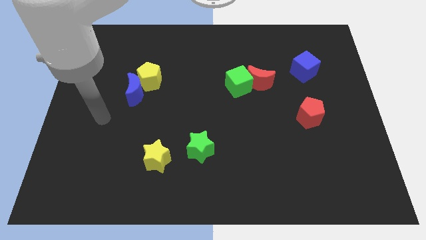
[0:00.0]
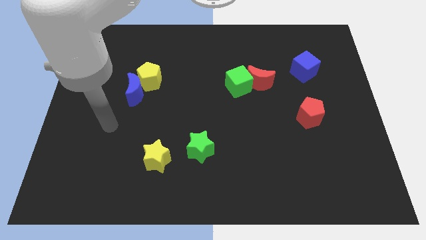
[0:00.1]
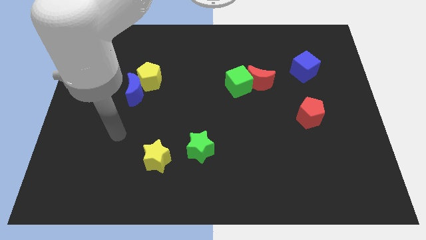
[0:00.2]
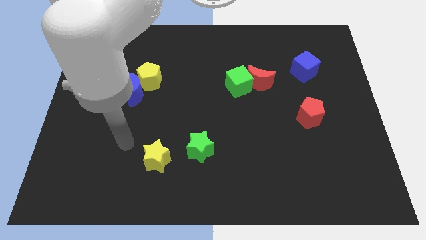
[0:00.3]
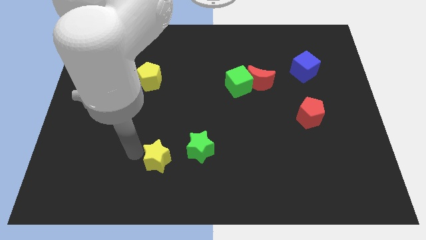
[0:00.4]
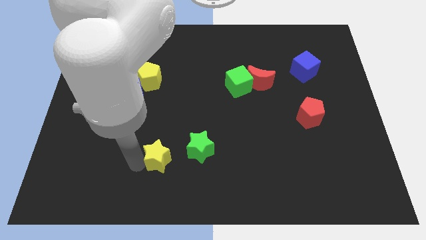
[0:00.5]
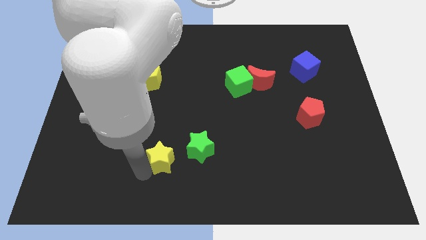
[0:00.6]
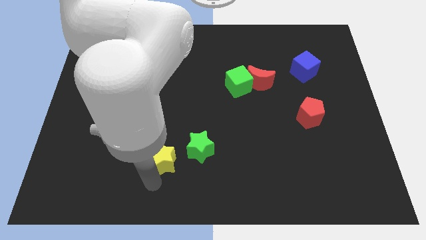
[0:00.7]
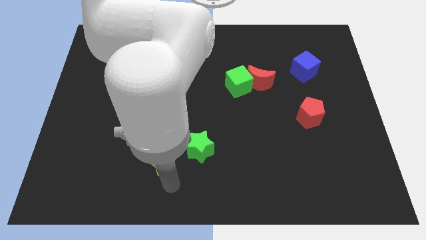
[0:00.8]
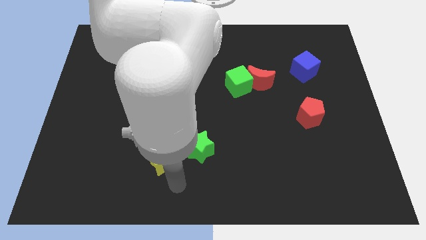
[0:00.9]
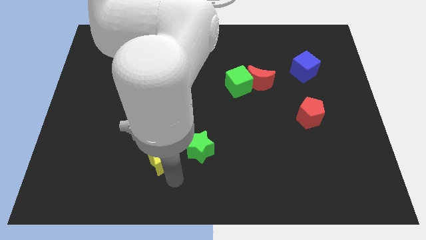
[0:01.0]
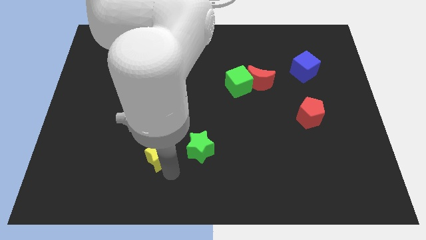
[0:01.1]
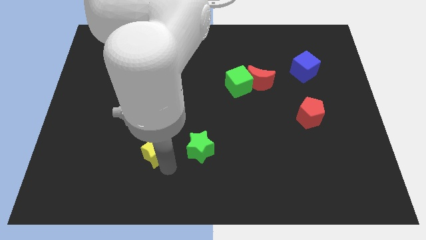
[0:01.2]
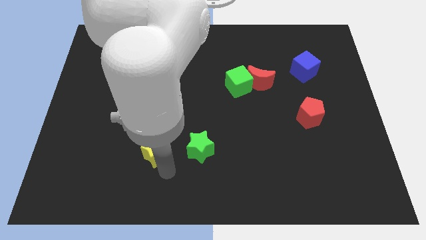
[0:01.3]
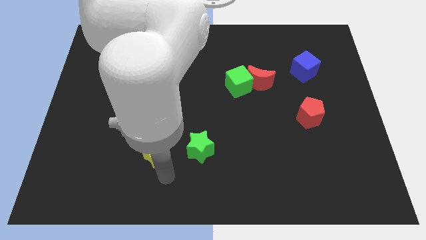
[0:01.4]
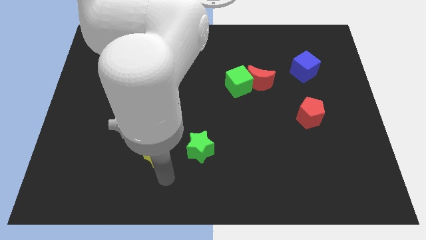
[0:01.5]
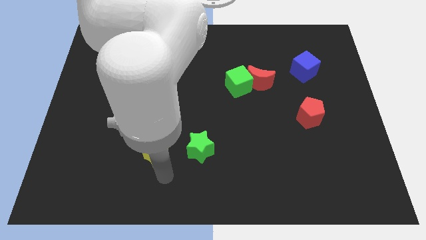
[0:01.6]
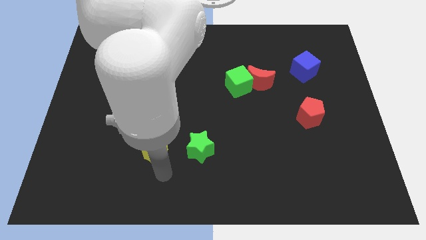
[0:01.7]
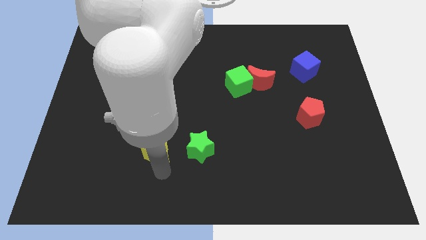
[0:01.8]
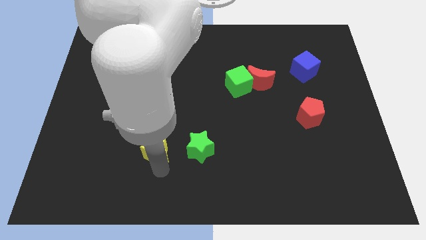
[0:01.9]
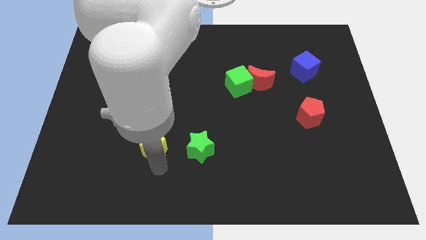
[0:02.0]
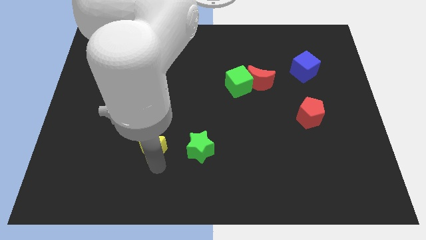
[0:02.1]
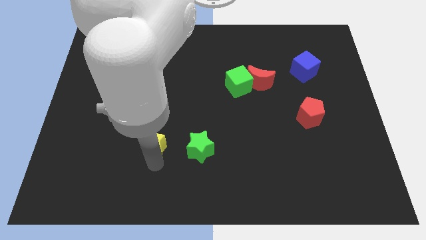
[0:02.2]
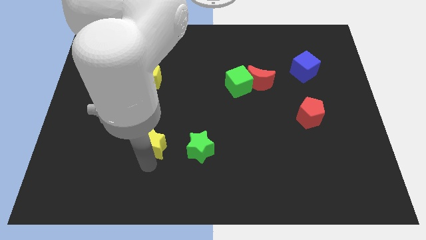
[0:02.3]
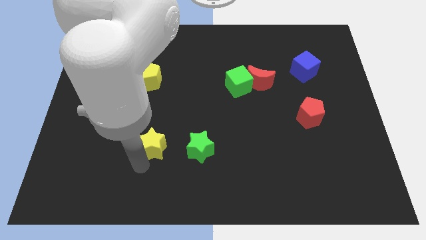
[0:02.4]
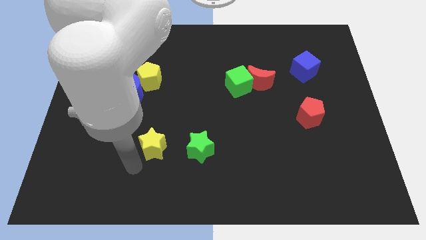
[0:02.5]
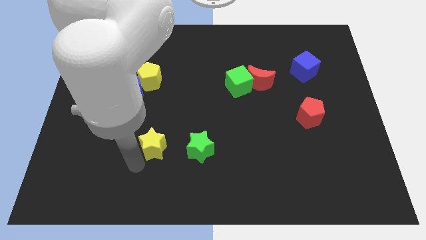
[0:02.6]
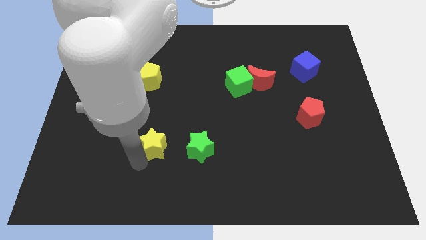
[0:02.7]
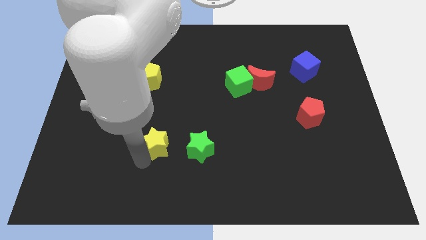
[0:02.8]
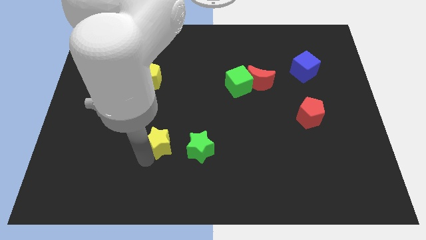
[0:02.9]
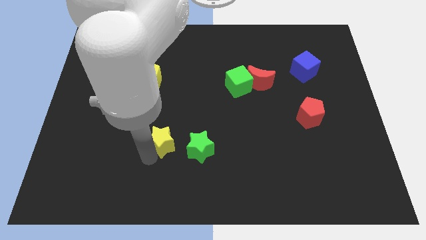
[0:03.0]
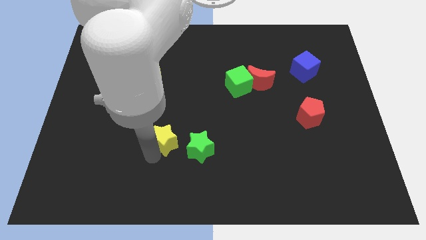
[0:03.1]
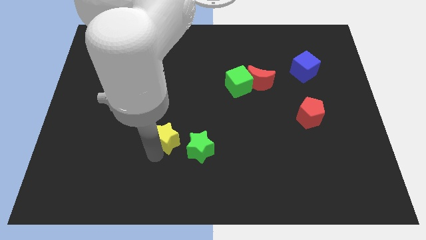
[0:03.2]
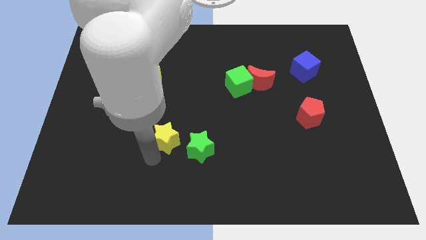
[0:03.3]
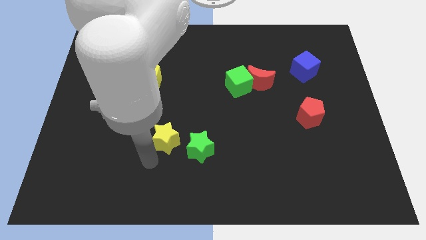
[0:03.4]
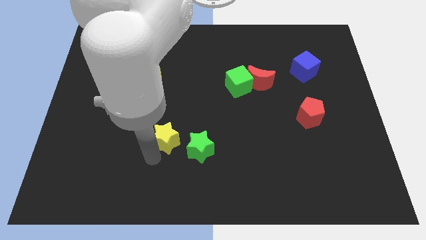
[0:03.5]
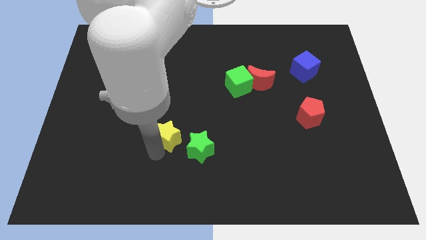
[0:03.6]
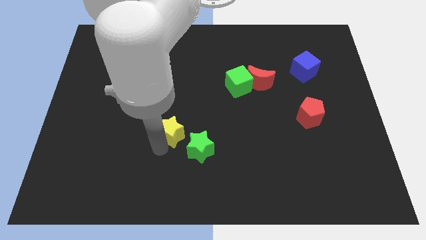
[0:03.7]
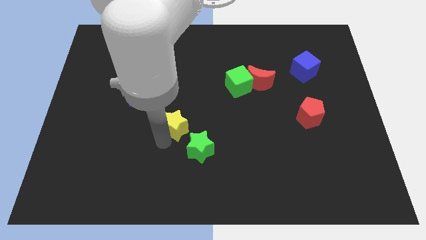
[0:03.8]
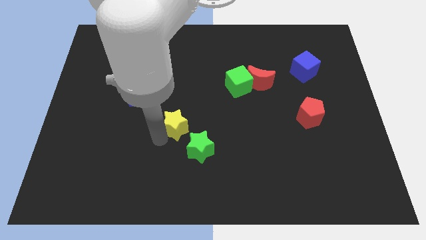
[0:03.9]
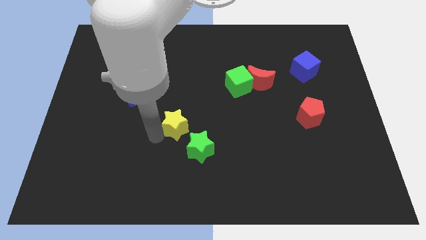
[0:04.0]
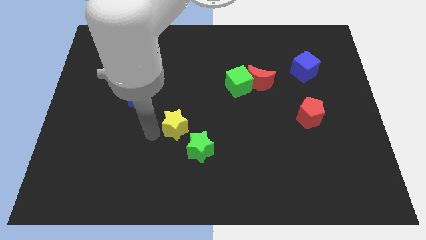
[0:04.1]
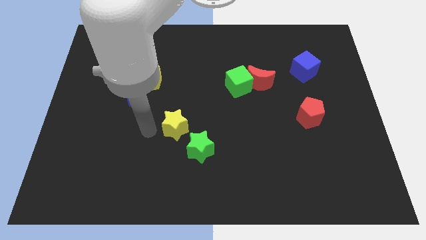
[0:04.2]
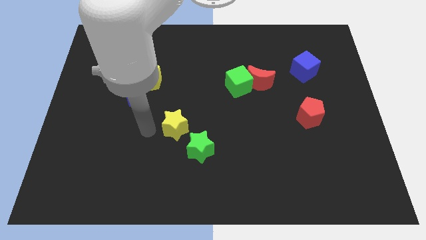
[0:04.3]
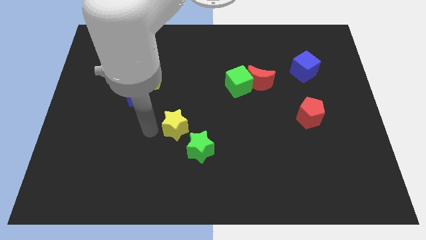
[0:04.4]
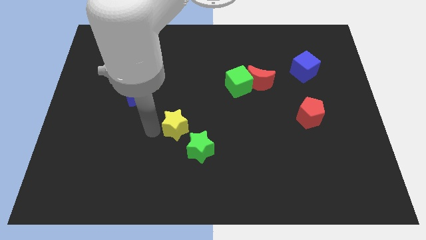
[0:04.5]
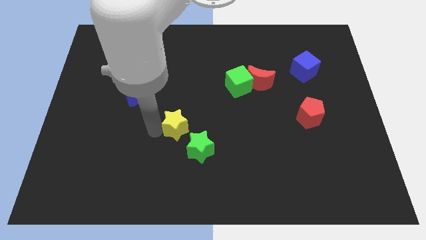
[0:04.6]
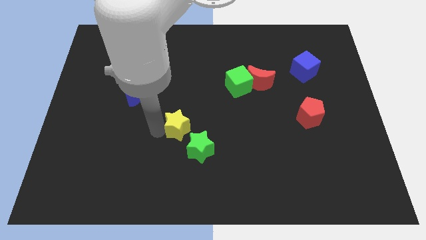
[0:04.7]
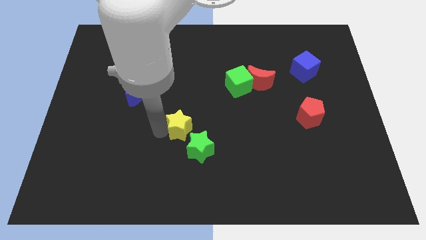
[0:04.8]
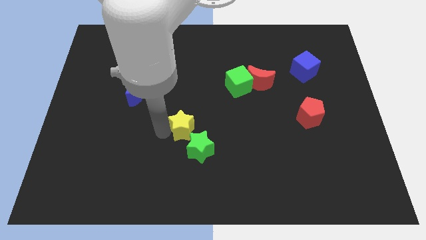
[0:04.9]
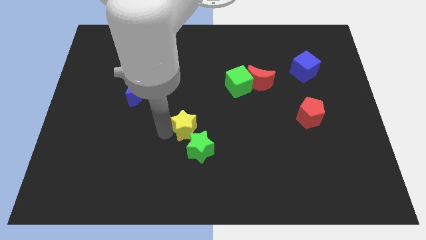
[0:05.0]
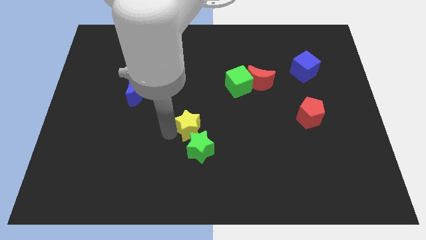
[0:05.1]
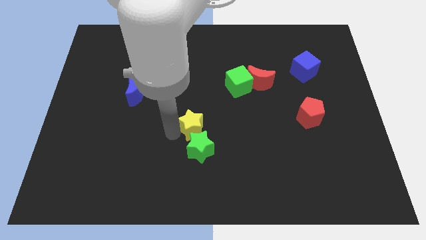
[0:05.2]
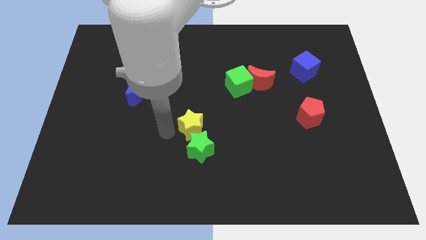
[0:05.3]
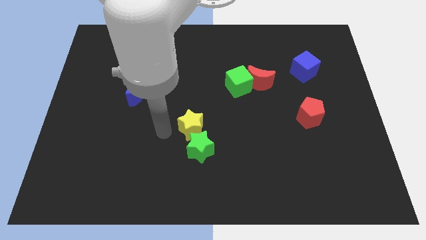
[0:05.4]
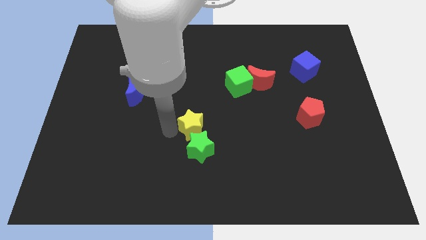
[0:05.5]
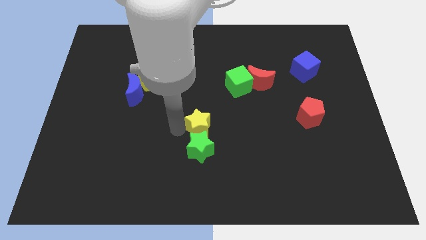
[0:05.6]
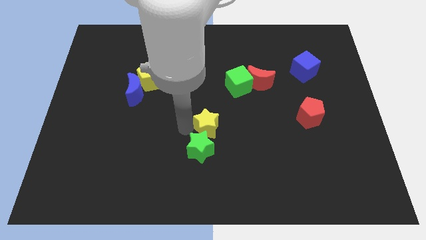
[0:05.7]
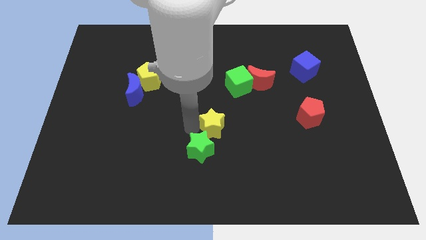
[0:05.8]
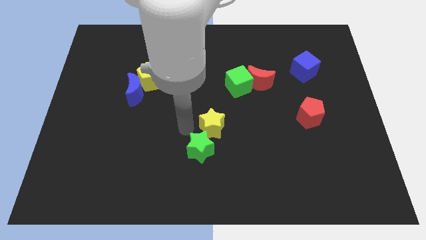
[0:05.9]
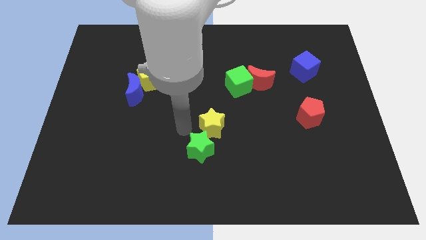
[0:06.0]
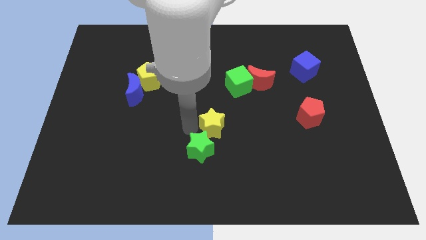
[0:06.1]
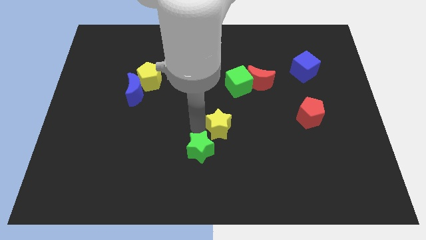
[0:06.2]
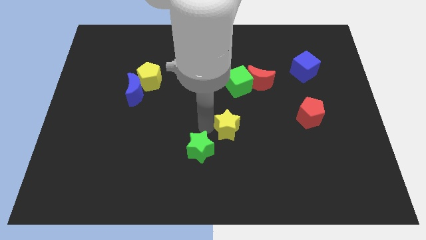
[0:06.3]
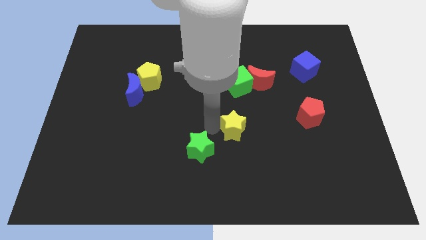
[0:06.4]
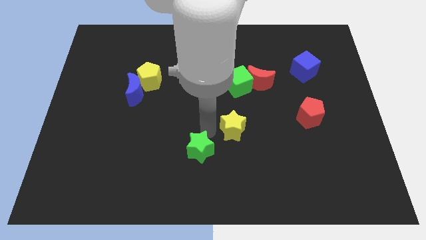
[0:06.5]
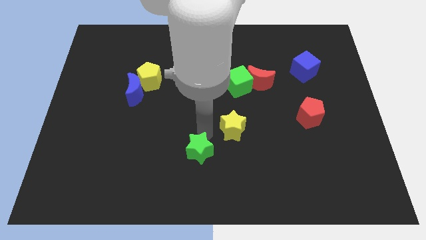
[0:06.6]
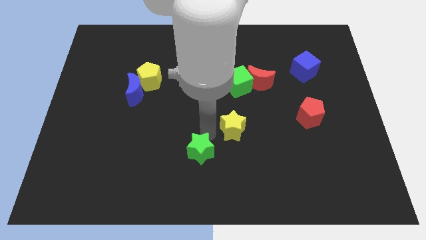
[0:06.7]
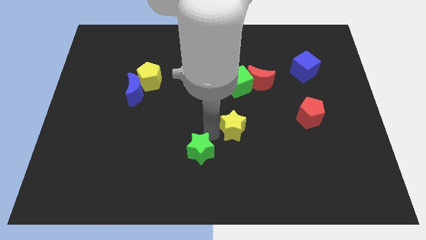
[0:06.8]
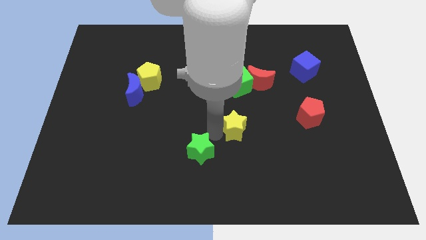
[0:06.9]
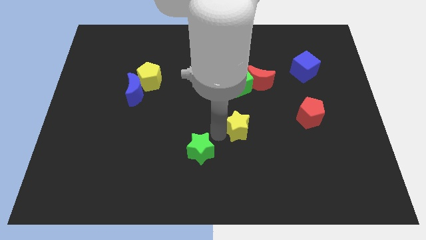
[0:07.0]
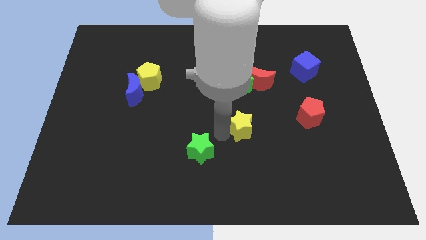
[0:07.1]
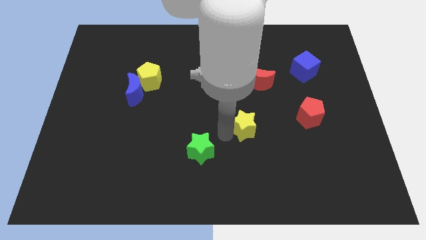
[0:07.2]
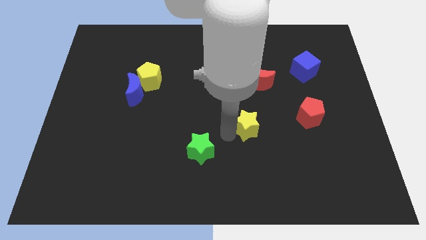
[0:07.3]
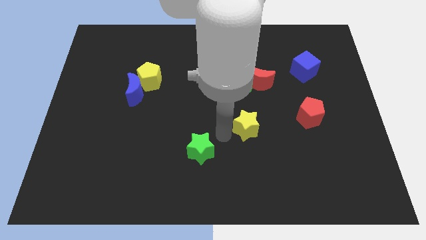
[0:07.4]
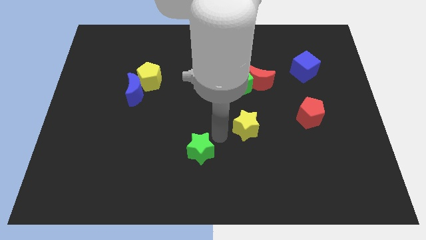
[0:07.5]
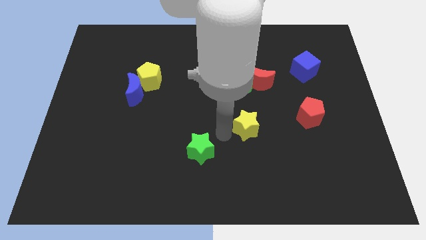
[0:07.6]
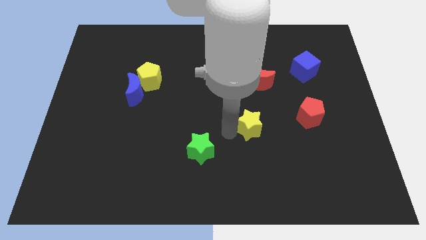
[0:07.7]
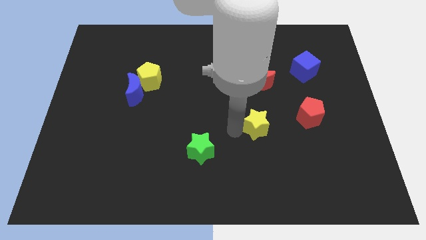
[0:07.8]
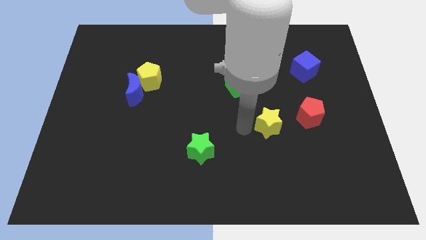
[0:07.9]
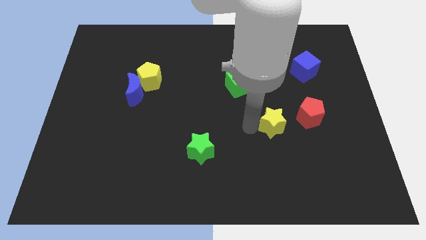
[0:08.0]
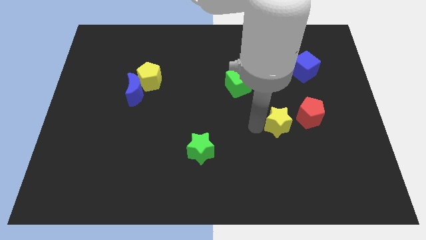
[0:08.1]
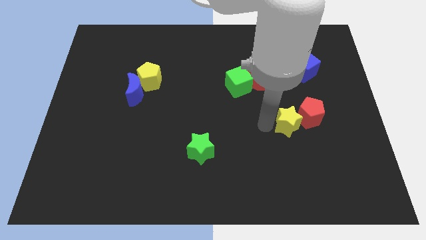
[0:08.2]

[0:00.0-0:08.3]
put the yellow star towards the red pentagon
